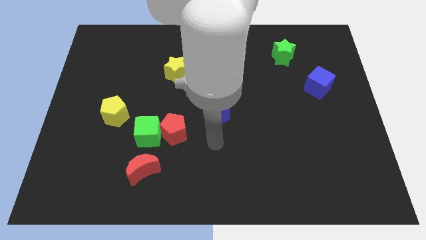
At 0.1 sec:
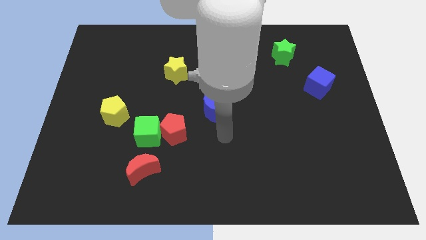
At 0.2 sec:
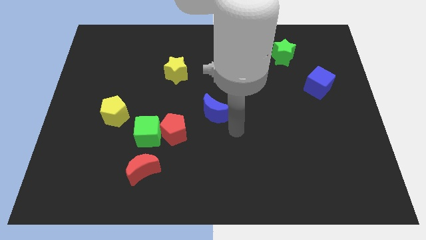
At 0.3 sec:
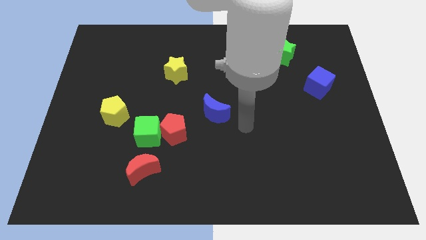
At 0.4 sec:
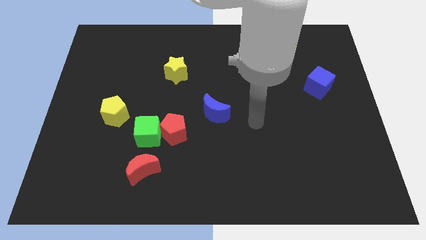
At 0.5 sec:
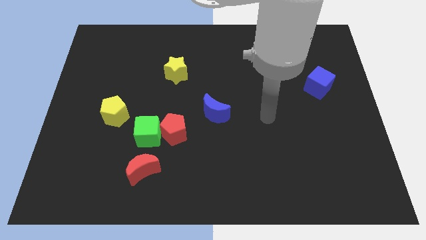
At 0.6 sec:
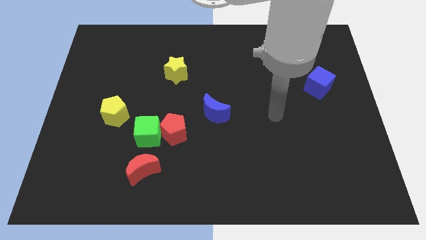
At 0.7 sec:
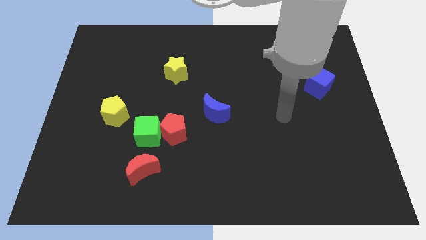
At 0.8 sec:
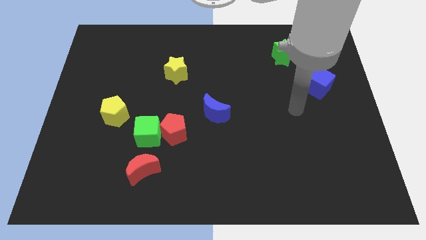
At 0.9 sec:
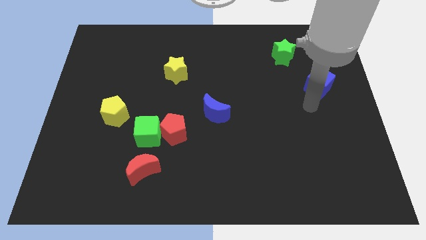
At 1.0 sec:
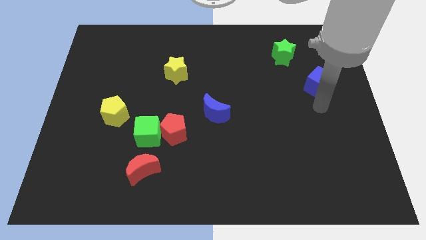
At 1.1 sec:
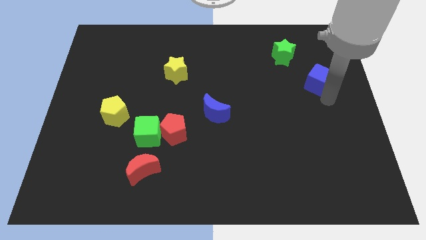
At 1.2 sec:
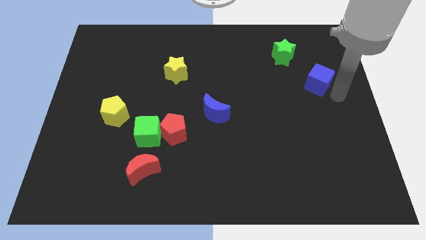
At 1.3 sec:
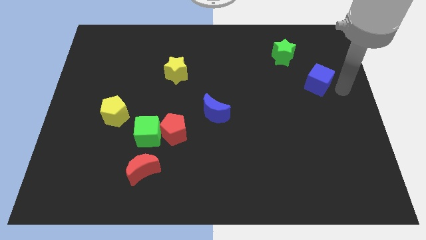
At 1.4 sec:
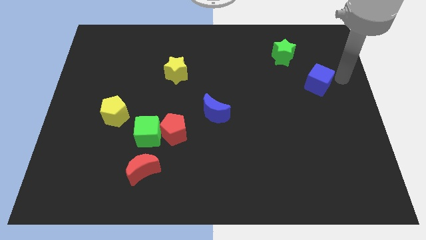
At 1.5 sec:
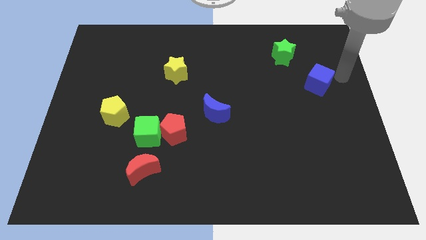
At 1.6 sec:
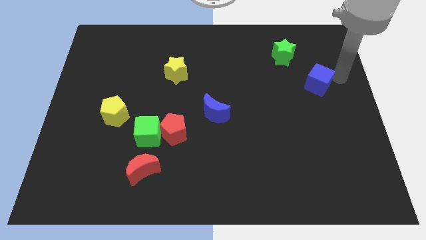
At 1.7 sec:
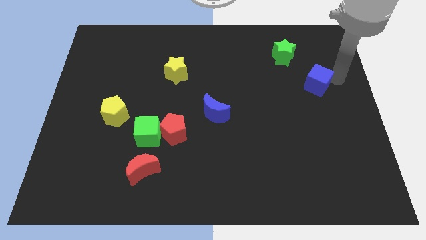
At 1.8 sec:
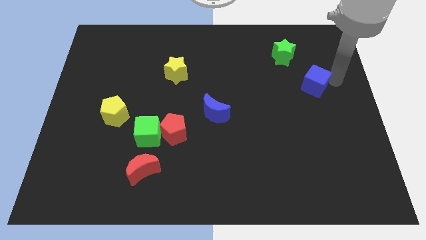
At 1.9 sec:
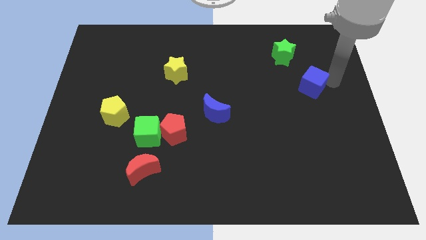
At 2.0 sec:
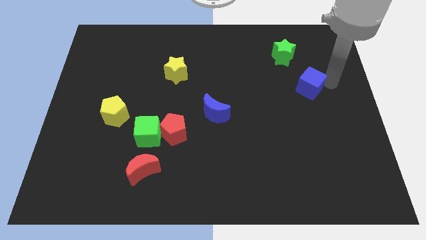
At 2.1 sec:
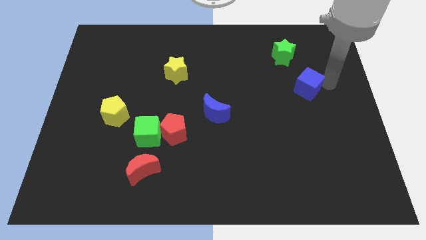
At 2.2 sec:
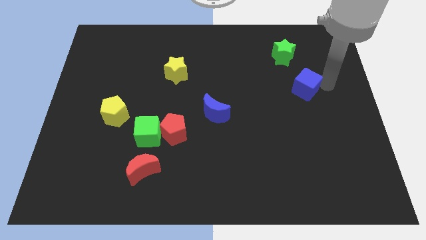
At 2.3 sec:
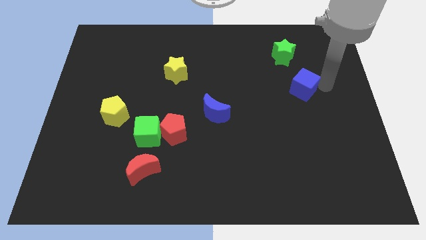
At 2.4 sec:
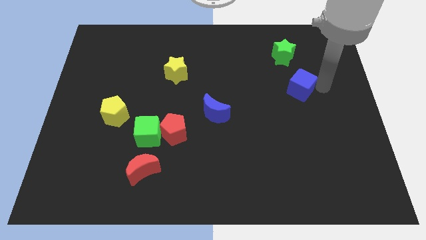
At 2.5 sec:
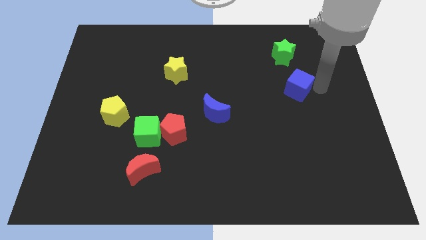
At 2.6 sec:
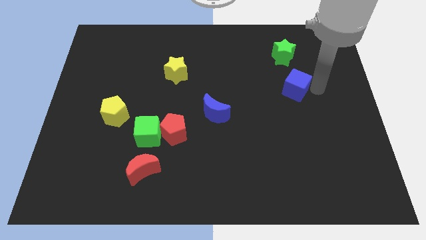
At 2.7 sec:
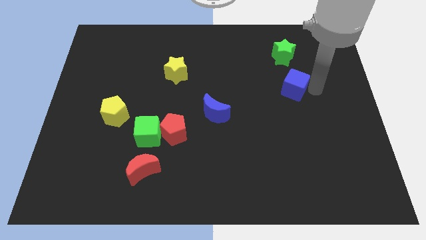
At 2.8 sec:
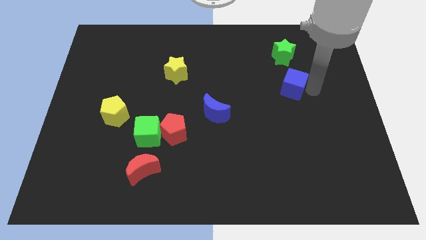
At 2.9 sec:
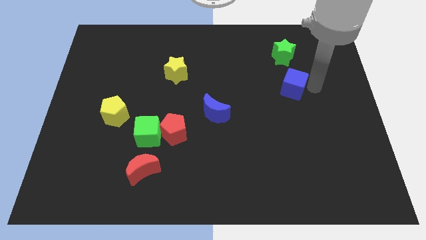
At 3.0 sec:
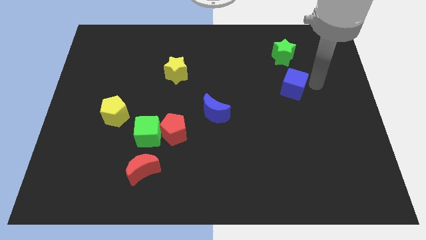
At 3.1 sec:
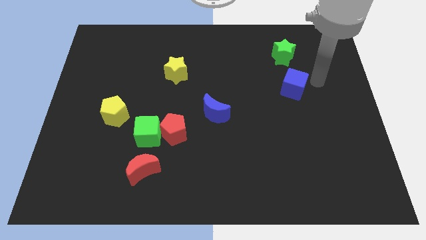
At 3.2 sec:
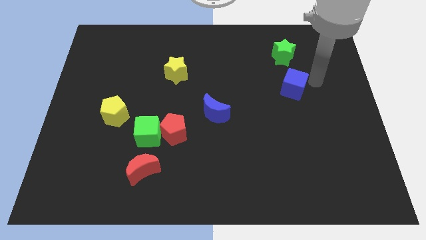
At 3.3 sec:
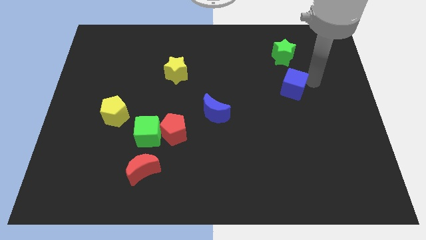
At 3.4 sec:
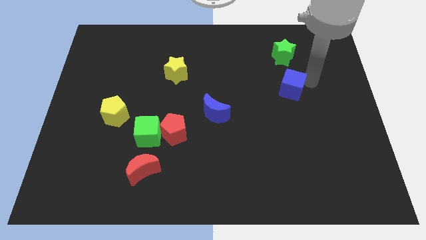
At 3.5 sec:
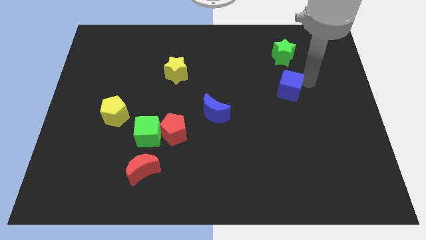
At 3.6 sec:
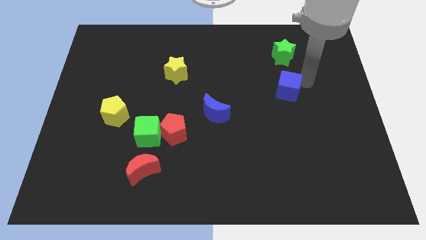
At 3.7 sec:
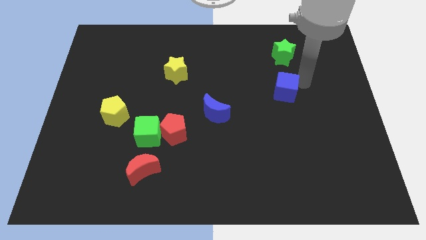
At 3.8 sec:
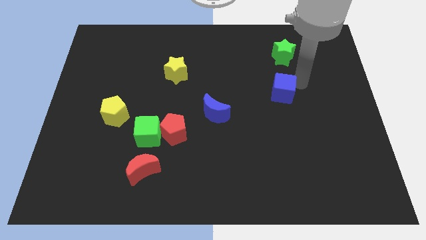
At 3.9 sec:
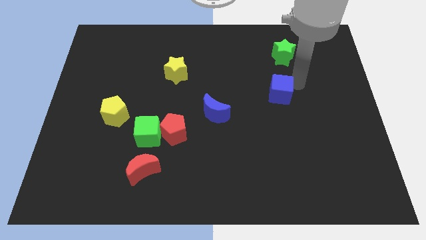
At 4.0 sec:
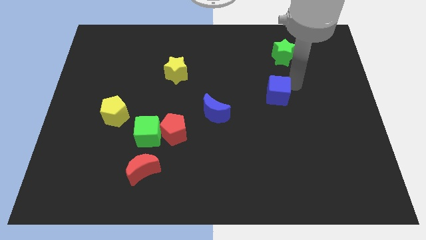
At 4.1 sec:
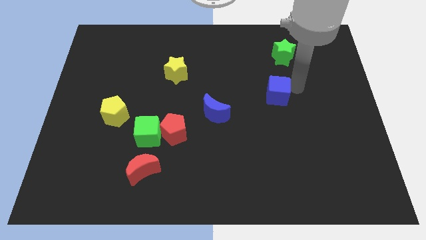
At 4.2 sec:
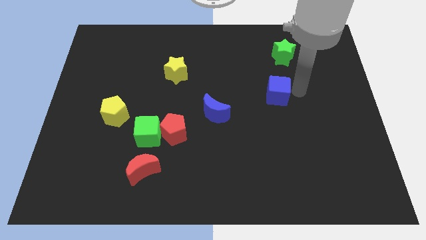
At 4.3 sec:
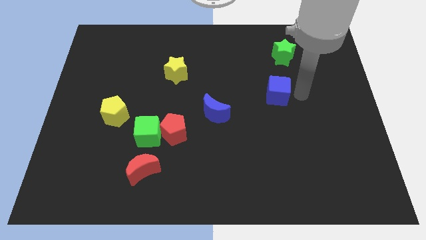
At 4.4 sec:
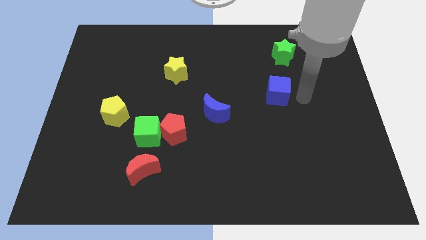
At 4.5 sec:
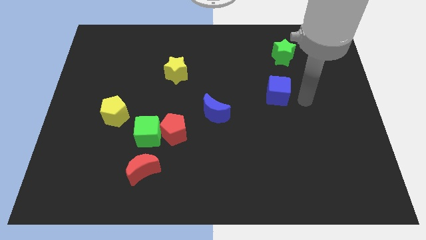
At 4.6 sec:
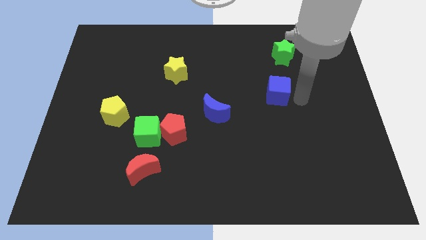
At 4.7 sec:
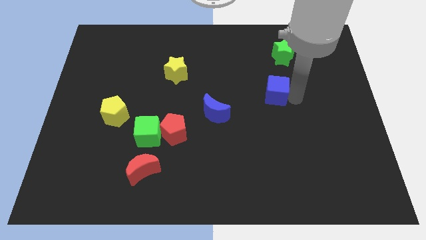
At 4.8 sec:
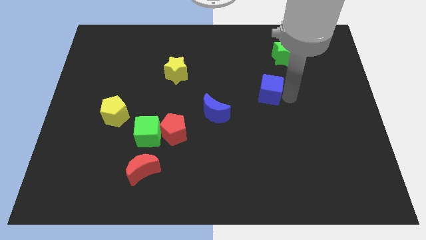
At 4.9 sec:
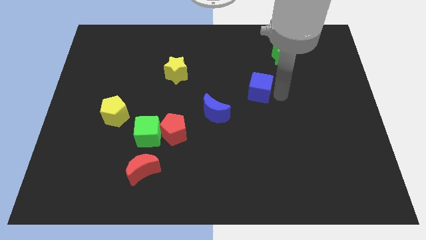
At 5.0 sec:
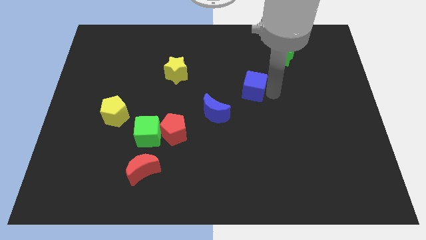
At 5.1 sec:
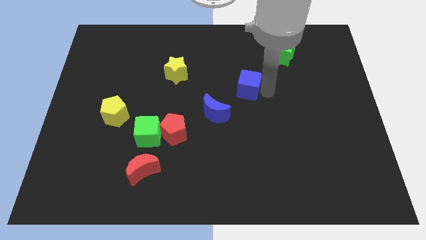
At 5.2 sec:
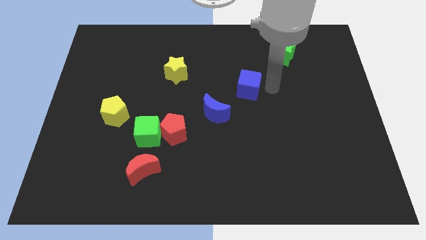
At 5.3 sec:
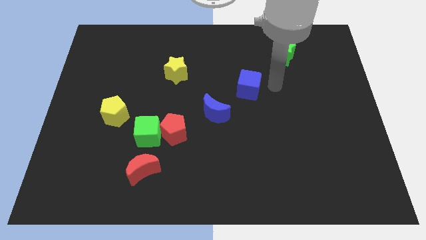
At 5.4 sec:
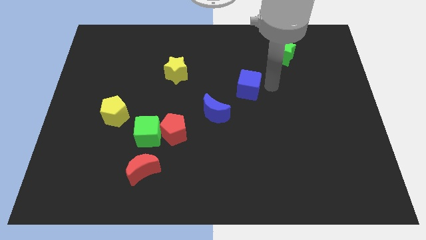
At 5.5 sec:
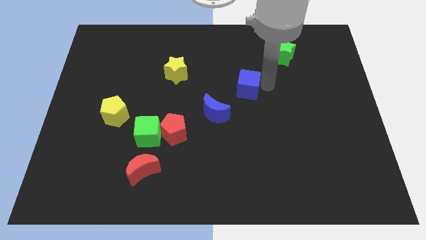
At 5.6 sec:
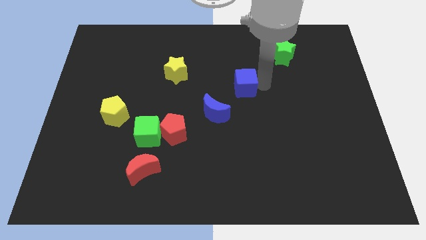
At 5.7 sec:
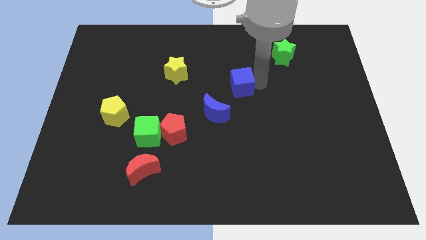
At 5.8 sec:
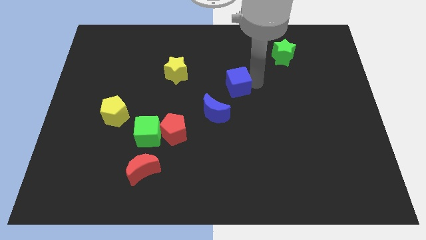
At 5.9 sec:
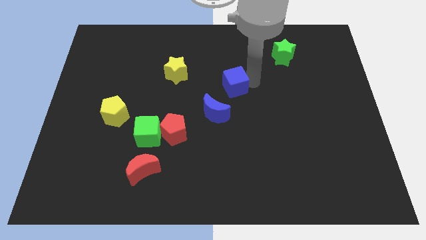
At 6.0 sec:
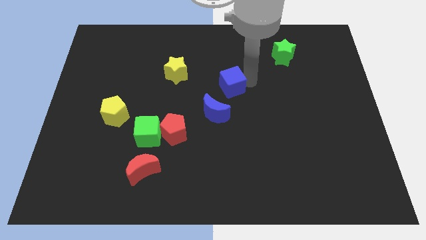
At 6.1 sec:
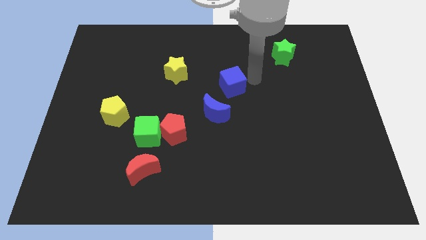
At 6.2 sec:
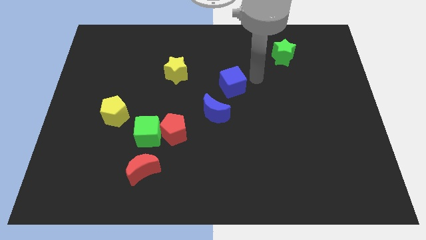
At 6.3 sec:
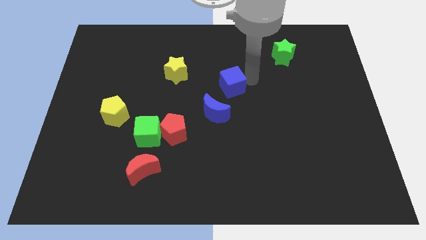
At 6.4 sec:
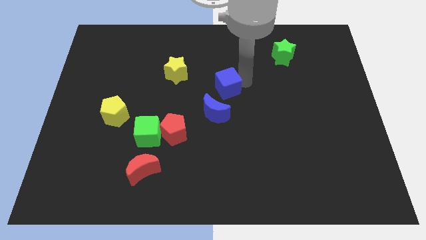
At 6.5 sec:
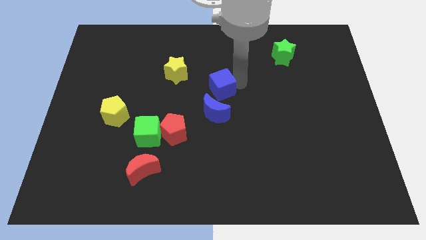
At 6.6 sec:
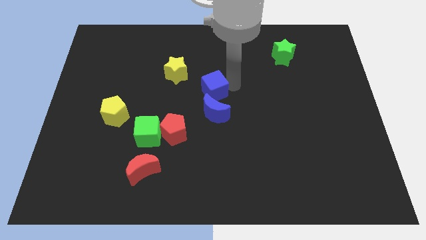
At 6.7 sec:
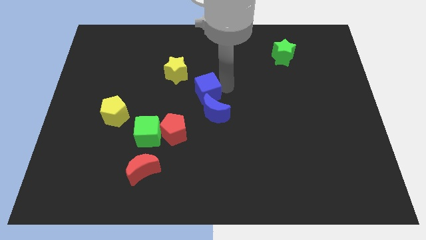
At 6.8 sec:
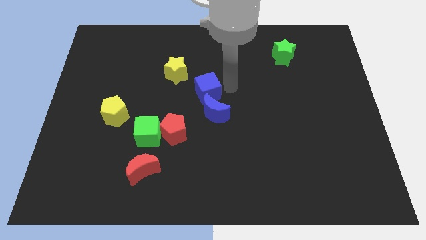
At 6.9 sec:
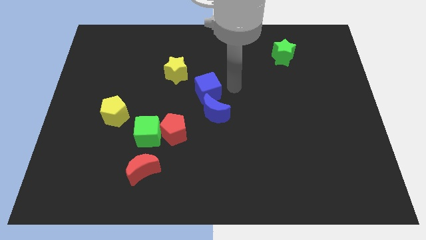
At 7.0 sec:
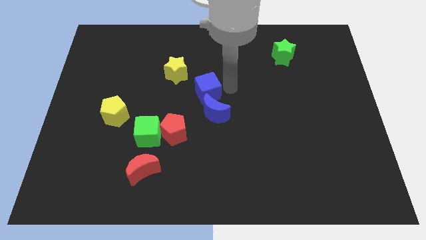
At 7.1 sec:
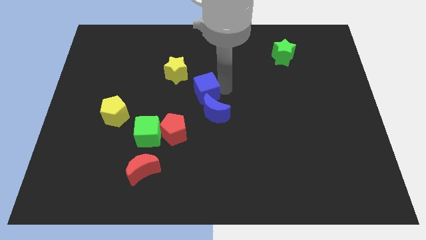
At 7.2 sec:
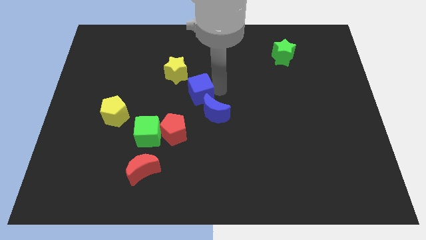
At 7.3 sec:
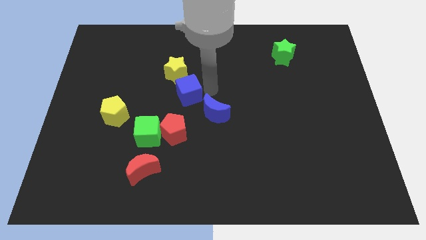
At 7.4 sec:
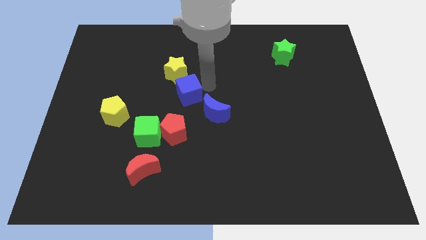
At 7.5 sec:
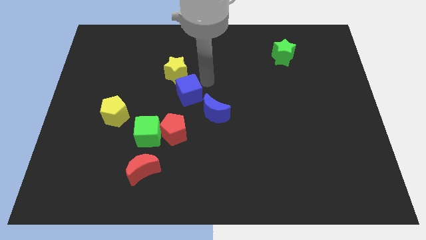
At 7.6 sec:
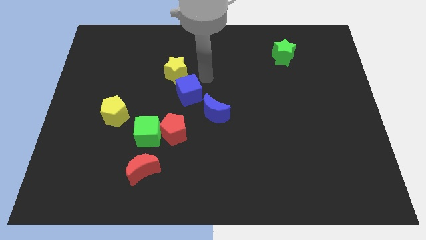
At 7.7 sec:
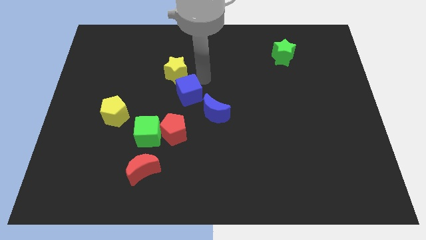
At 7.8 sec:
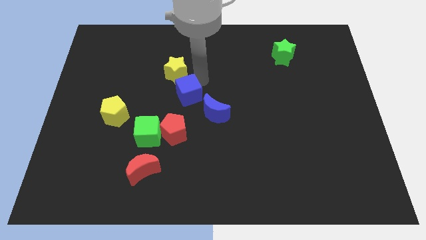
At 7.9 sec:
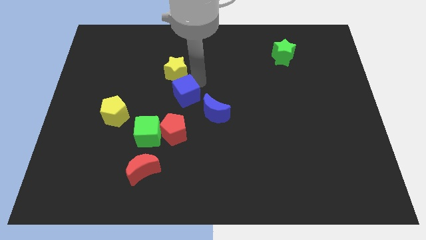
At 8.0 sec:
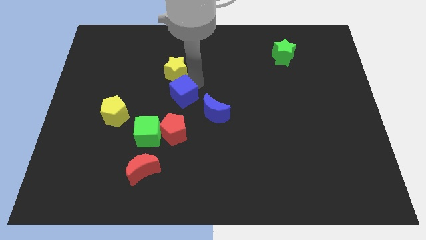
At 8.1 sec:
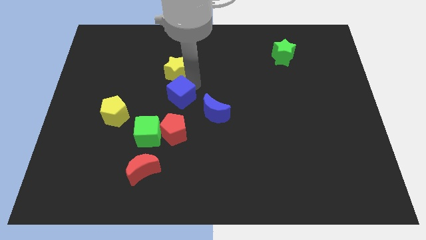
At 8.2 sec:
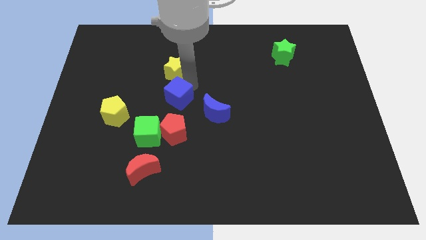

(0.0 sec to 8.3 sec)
slide the blue cube to the left of the blue moon
